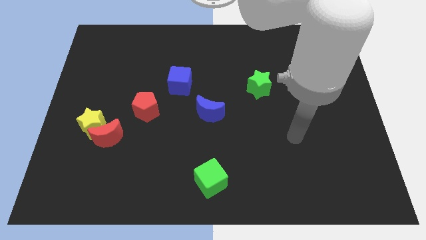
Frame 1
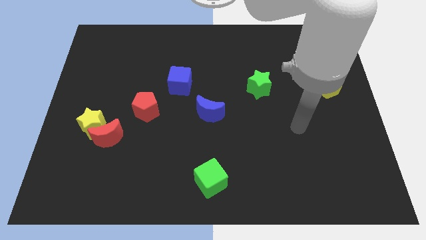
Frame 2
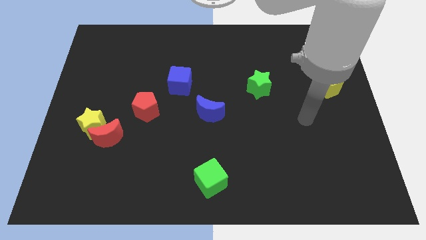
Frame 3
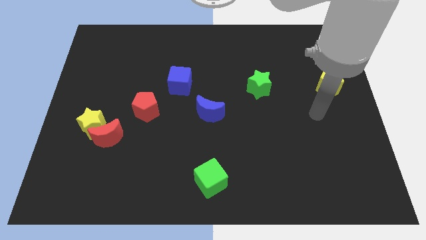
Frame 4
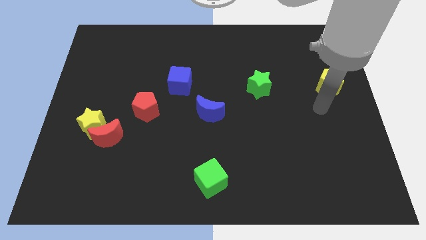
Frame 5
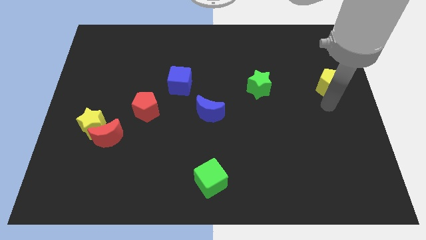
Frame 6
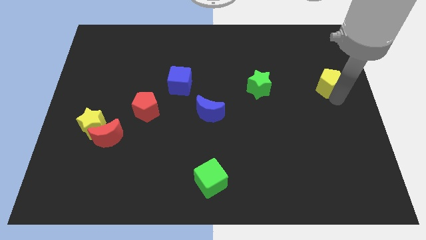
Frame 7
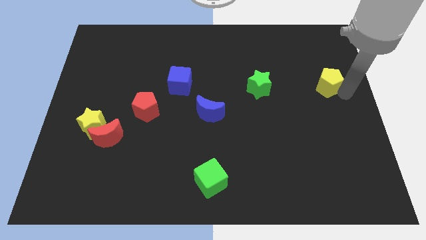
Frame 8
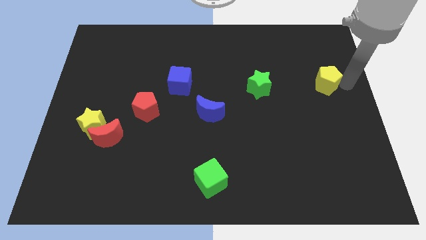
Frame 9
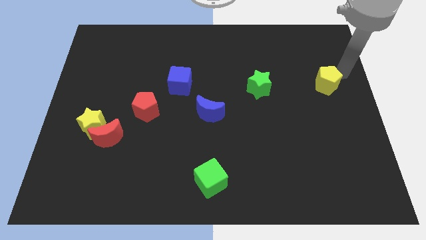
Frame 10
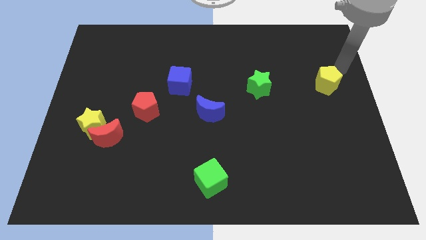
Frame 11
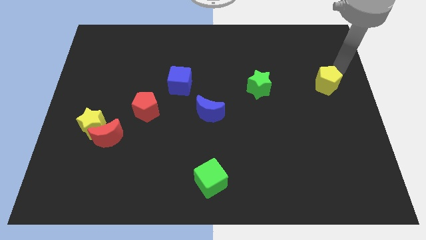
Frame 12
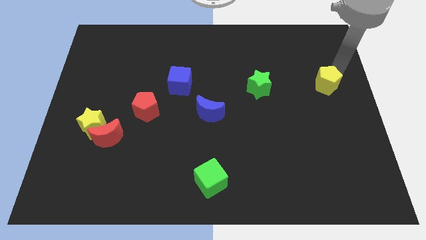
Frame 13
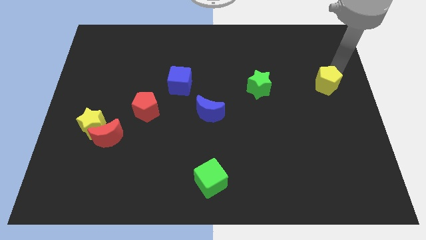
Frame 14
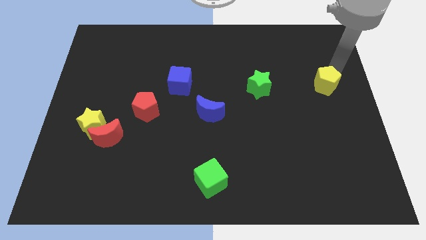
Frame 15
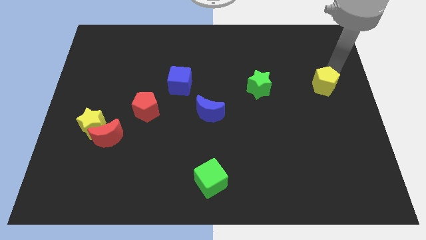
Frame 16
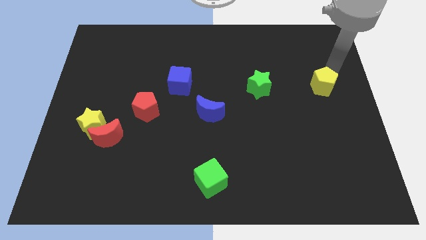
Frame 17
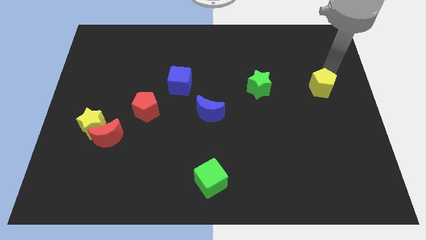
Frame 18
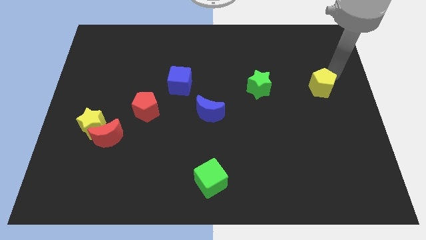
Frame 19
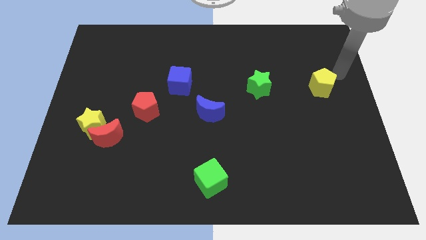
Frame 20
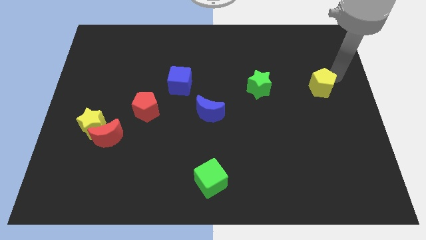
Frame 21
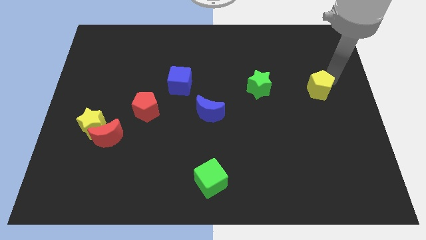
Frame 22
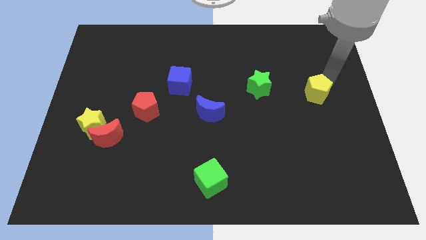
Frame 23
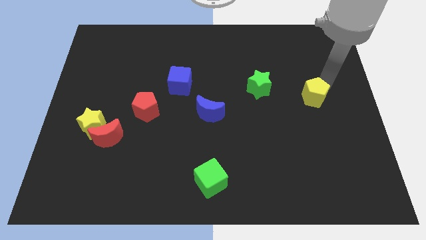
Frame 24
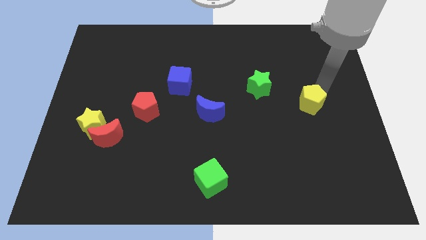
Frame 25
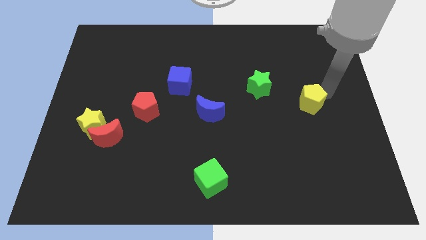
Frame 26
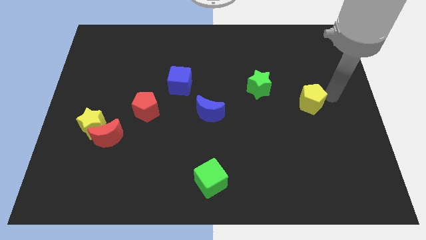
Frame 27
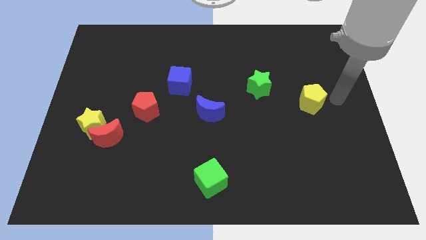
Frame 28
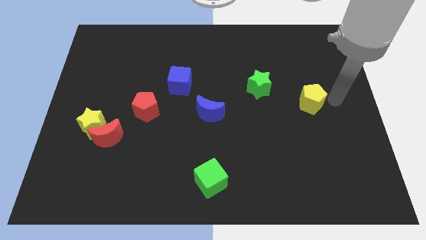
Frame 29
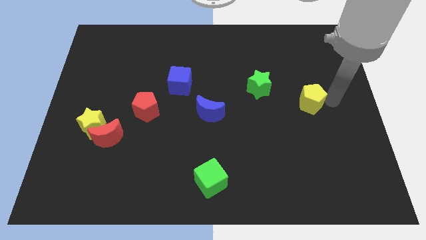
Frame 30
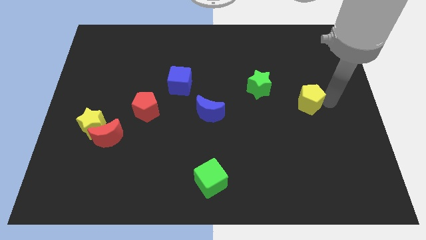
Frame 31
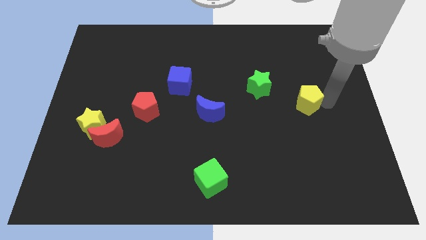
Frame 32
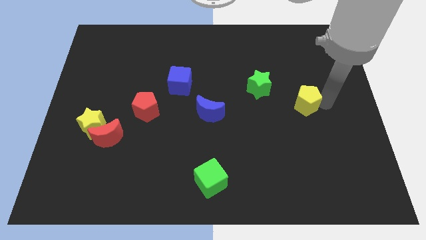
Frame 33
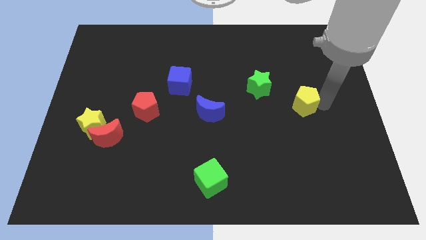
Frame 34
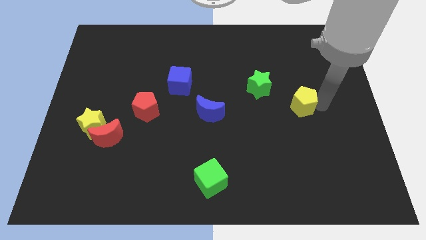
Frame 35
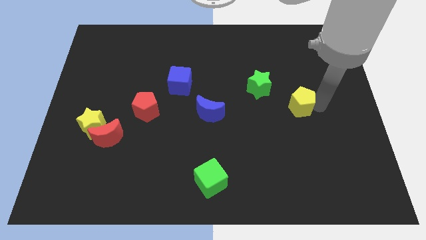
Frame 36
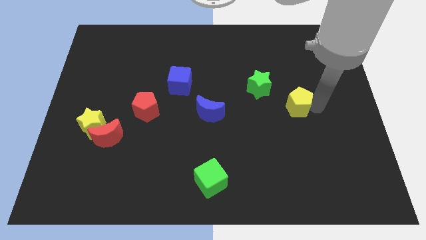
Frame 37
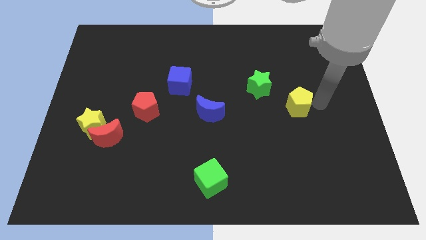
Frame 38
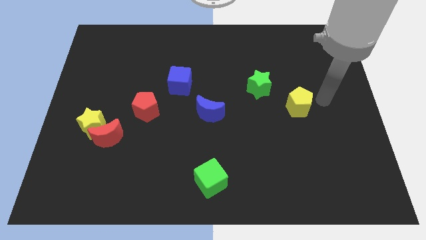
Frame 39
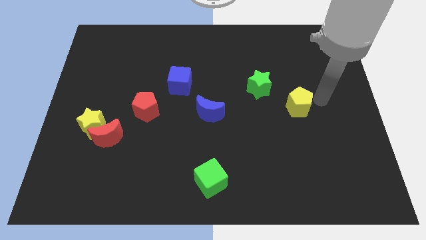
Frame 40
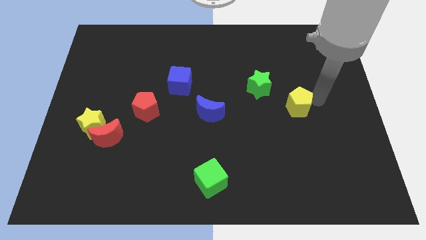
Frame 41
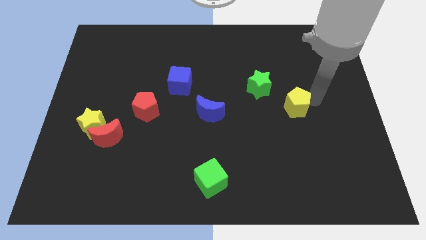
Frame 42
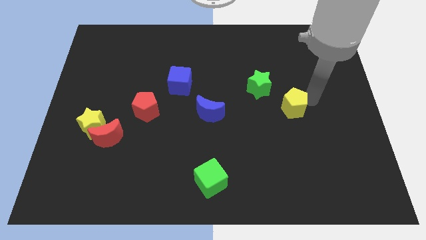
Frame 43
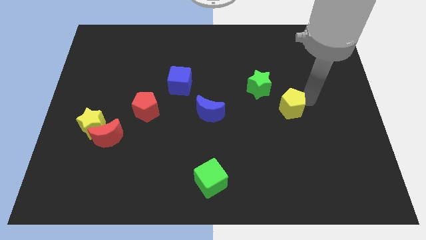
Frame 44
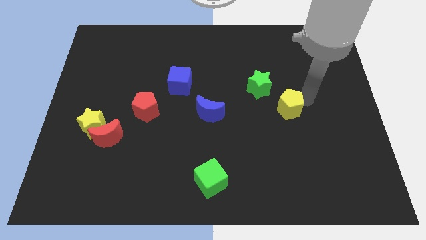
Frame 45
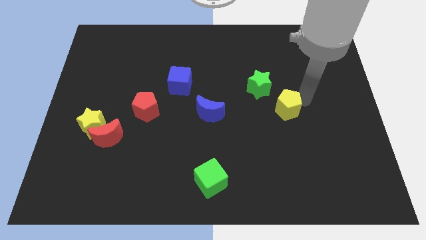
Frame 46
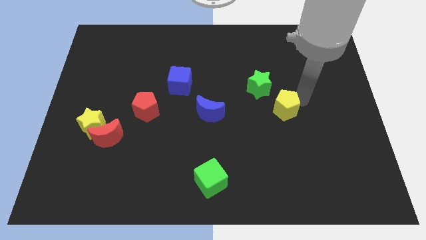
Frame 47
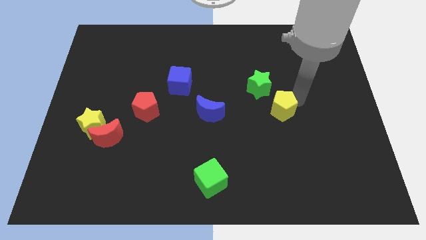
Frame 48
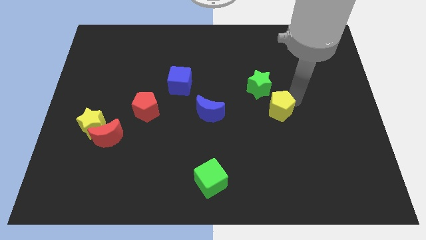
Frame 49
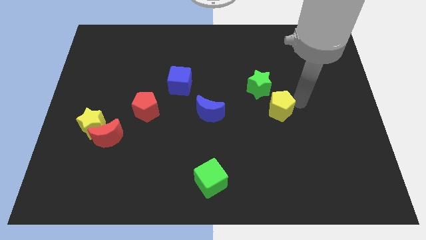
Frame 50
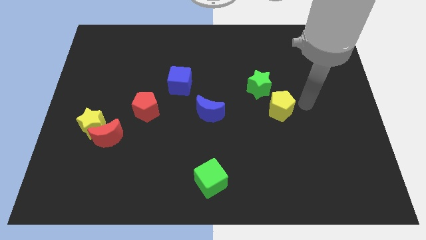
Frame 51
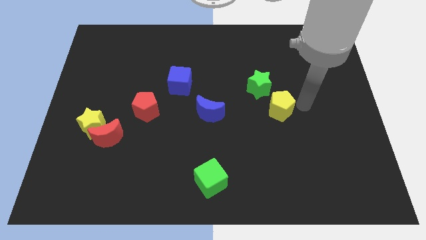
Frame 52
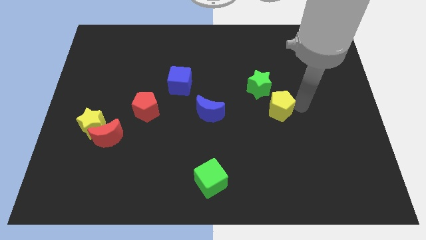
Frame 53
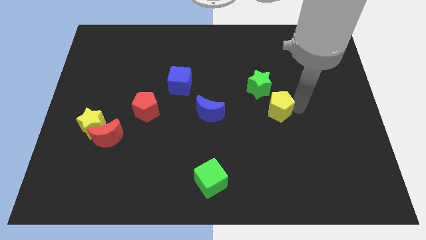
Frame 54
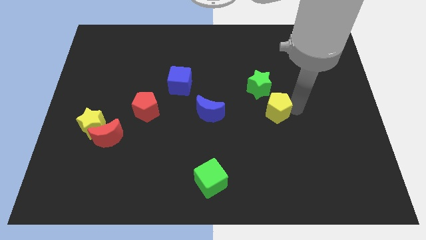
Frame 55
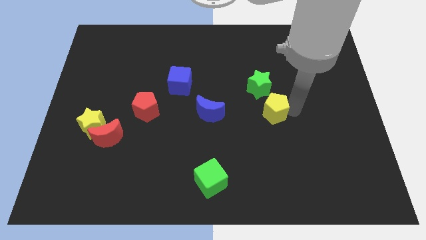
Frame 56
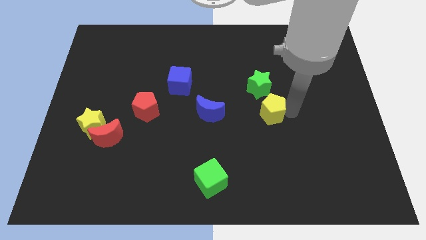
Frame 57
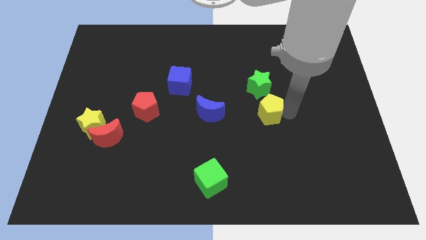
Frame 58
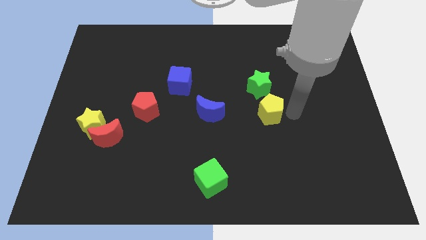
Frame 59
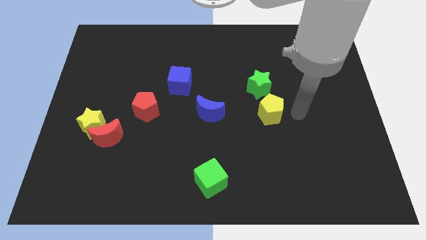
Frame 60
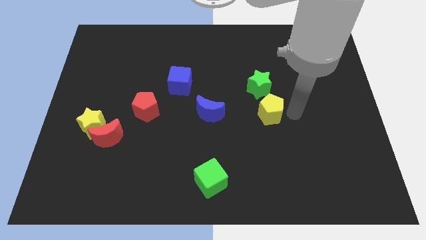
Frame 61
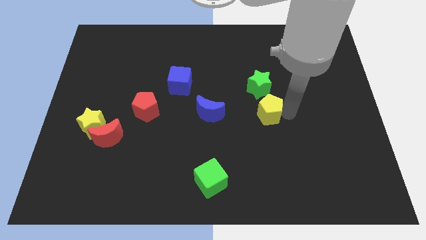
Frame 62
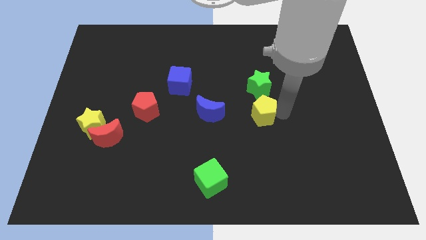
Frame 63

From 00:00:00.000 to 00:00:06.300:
push the yellow pentagon to the middle of the board
